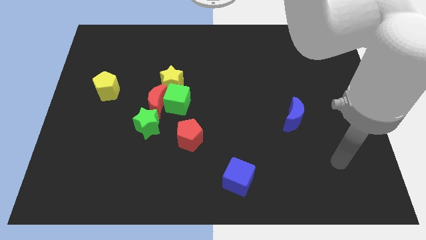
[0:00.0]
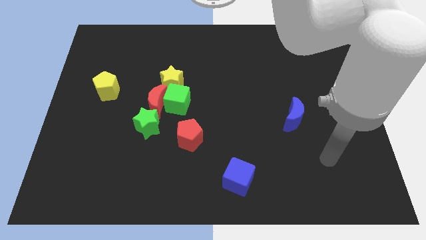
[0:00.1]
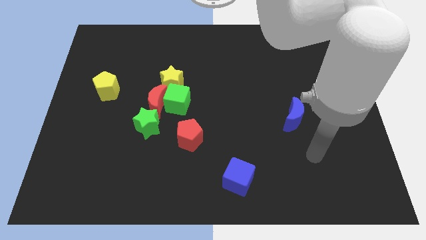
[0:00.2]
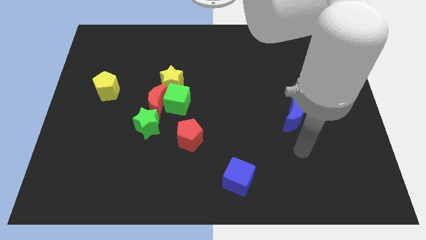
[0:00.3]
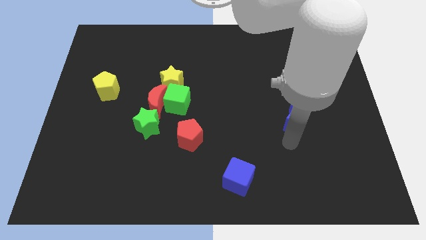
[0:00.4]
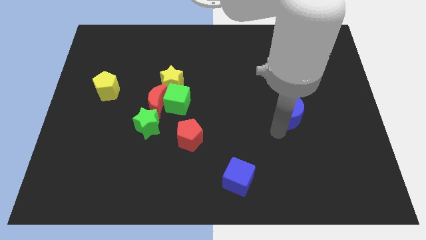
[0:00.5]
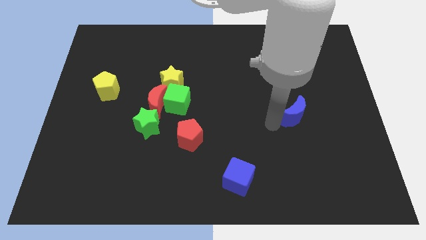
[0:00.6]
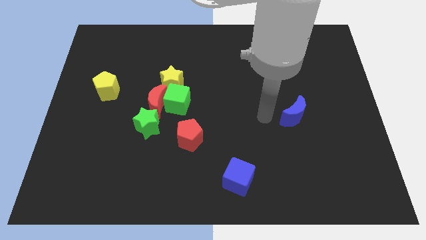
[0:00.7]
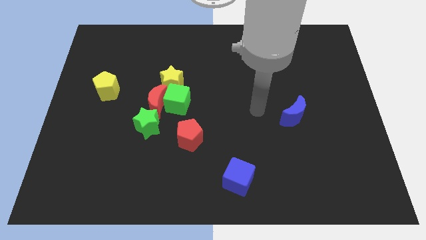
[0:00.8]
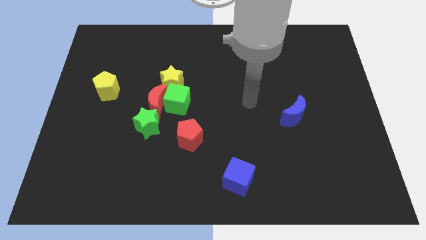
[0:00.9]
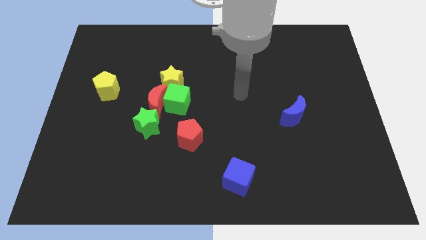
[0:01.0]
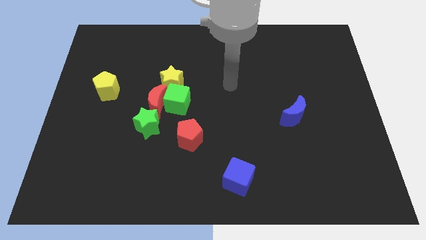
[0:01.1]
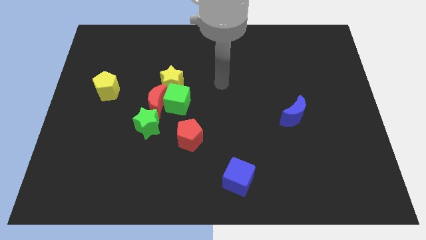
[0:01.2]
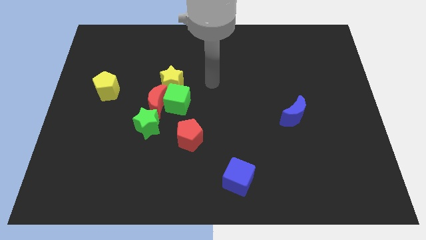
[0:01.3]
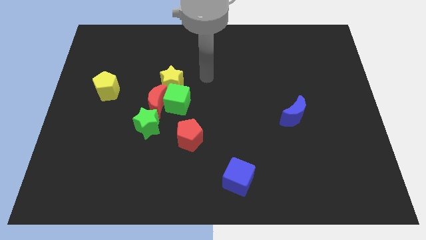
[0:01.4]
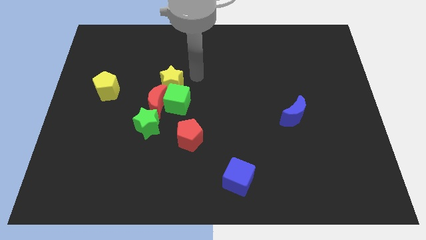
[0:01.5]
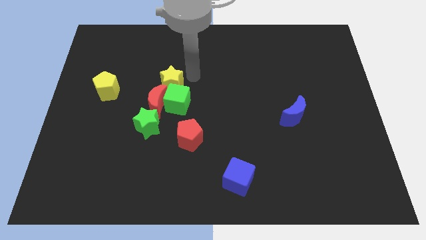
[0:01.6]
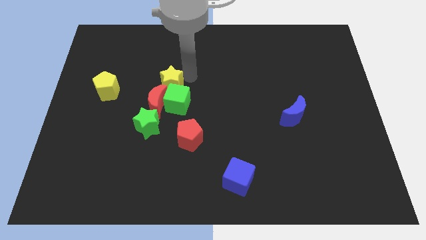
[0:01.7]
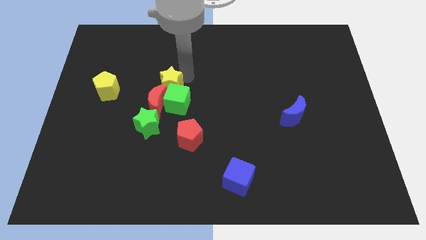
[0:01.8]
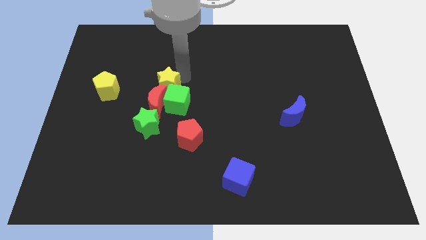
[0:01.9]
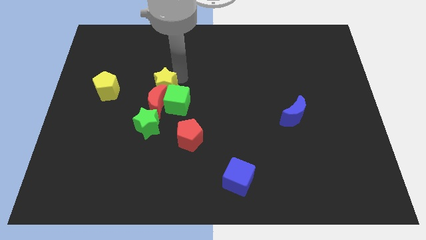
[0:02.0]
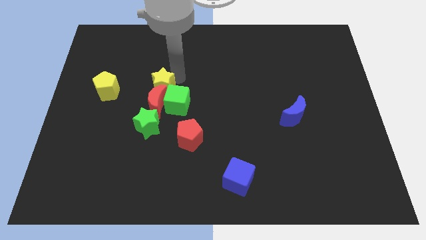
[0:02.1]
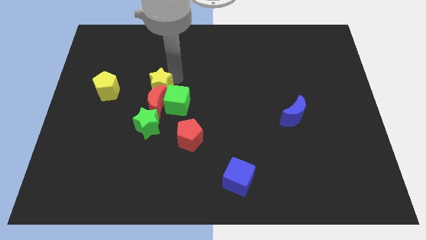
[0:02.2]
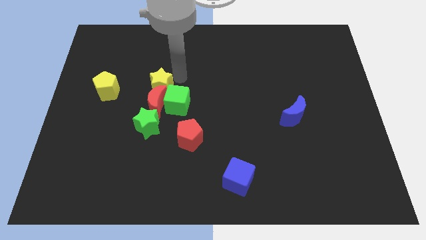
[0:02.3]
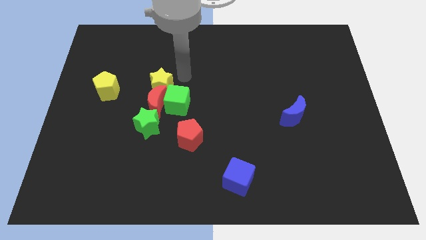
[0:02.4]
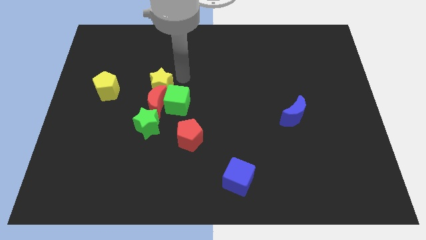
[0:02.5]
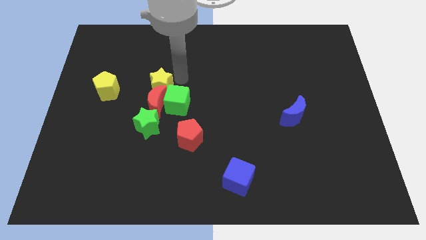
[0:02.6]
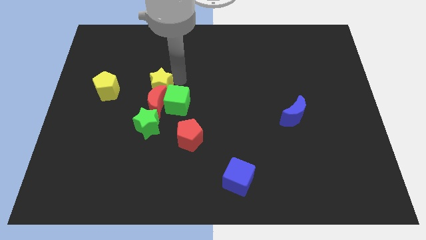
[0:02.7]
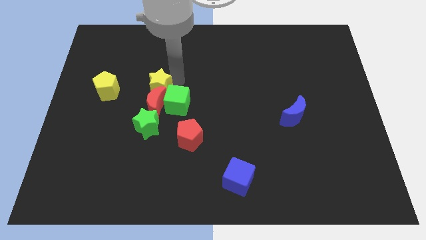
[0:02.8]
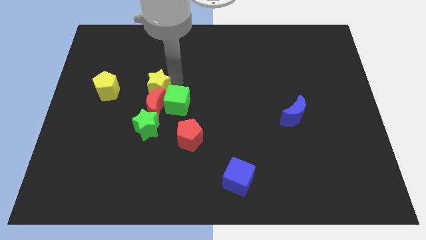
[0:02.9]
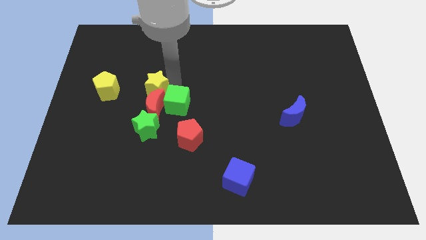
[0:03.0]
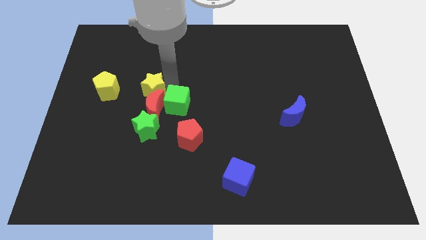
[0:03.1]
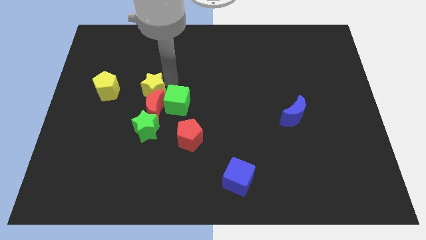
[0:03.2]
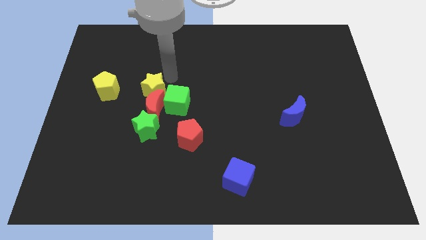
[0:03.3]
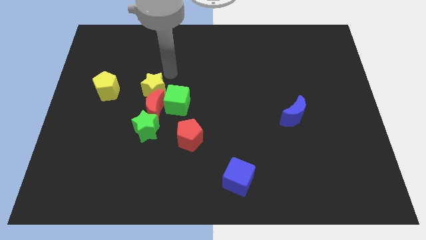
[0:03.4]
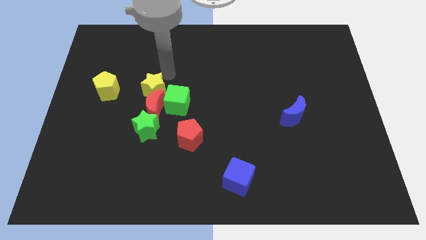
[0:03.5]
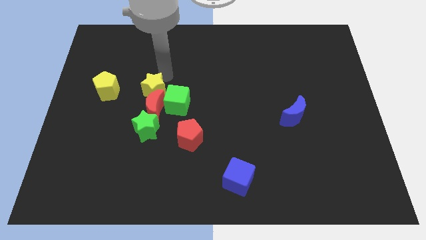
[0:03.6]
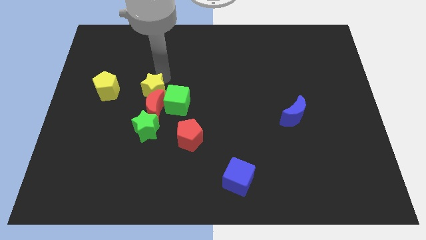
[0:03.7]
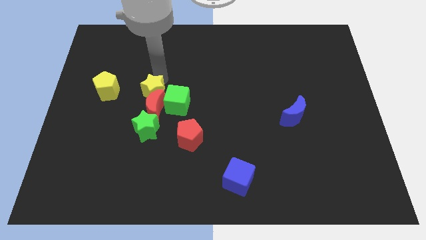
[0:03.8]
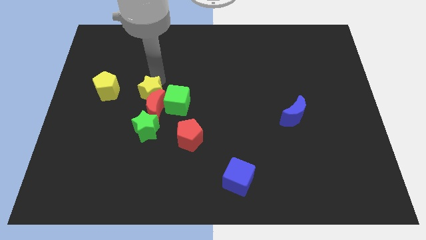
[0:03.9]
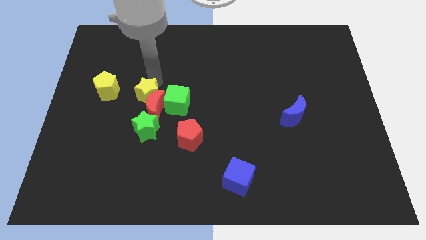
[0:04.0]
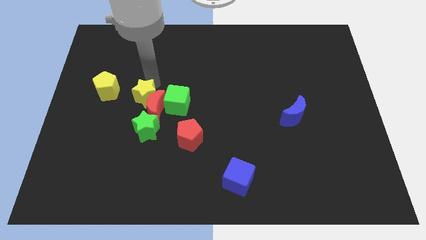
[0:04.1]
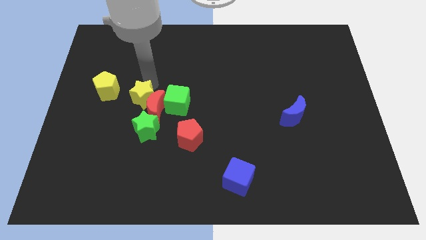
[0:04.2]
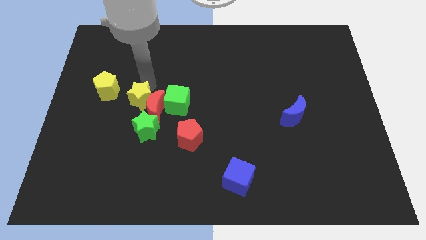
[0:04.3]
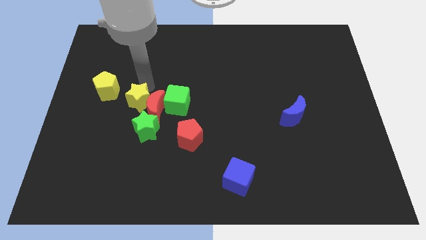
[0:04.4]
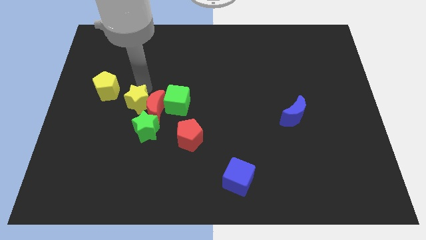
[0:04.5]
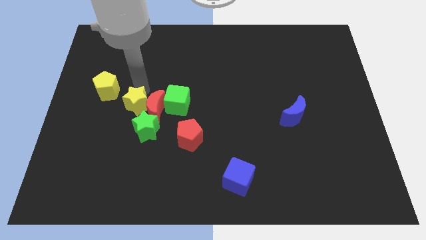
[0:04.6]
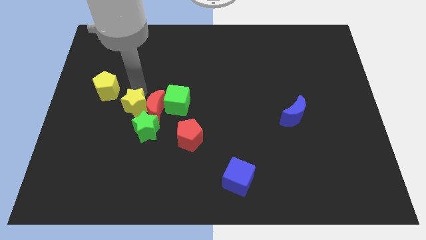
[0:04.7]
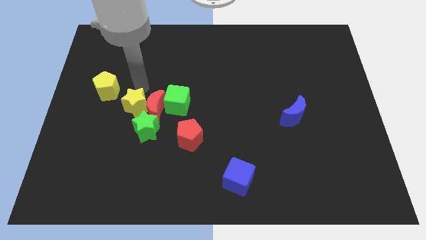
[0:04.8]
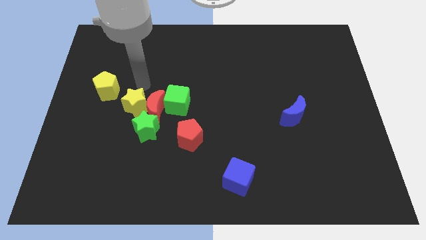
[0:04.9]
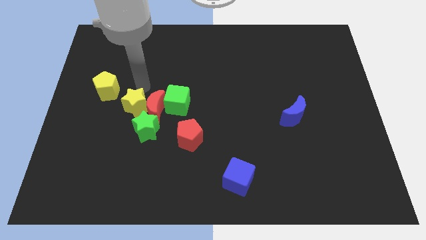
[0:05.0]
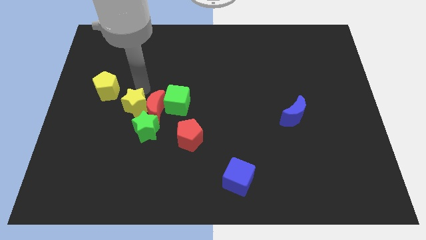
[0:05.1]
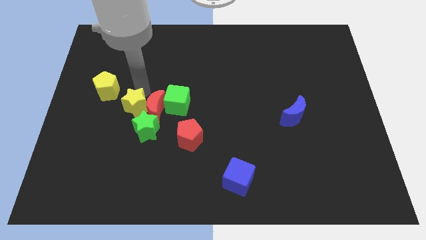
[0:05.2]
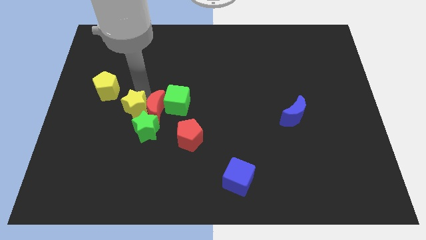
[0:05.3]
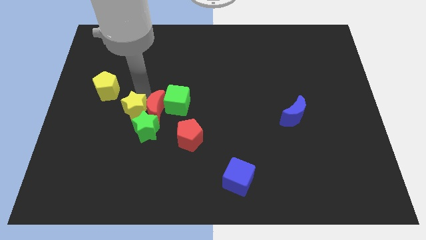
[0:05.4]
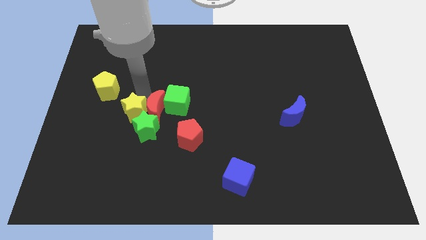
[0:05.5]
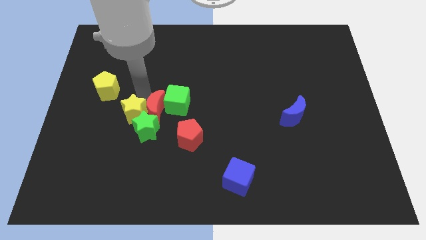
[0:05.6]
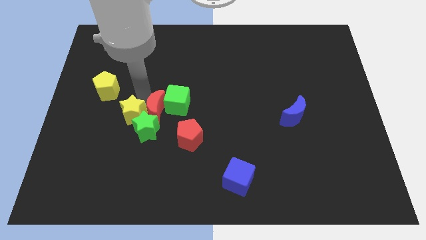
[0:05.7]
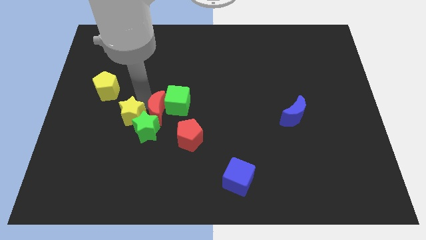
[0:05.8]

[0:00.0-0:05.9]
slightly push the yellow star downwards

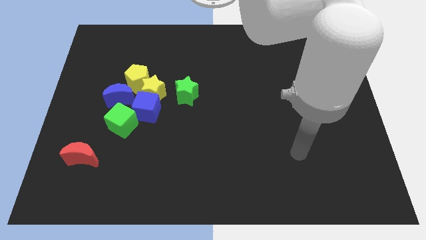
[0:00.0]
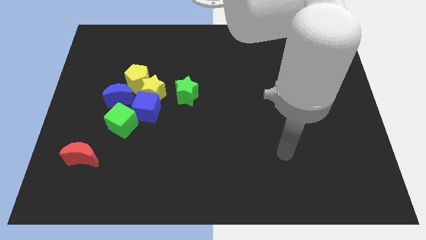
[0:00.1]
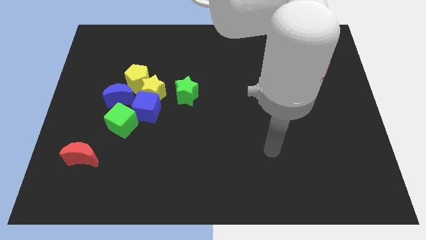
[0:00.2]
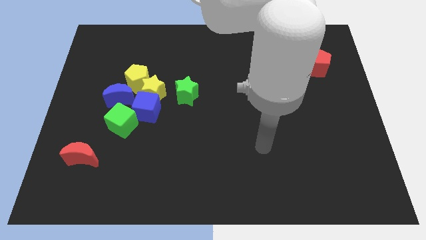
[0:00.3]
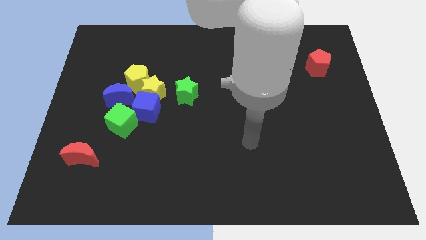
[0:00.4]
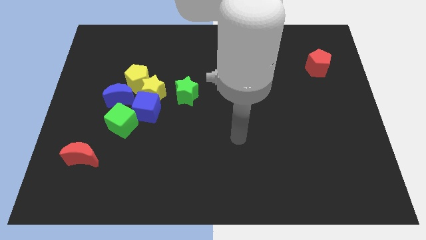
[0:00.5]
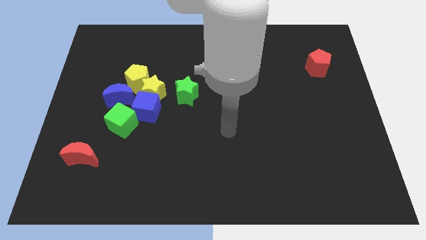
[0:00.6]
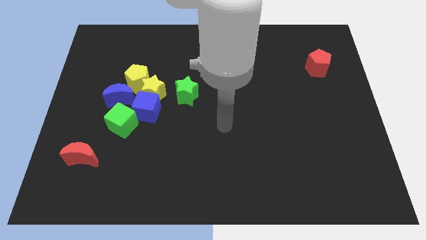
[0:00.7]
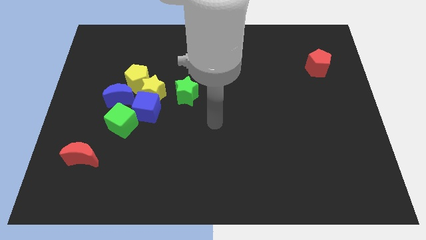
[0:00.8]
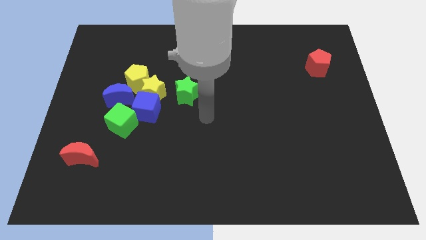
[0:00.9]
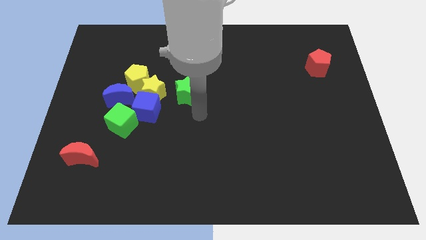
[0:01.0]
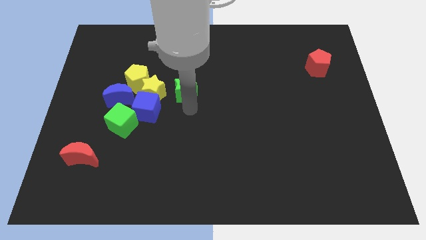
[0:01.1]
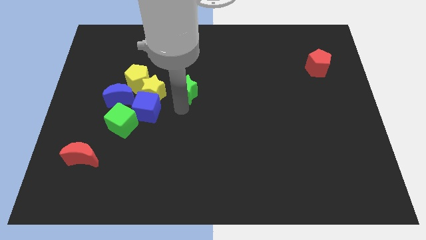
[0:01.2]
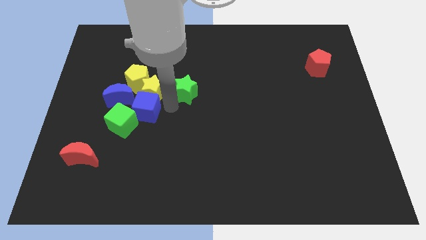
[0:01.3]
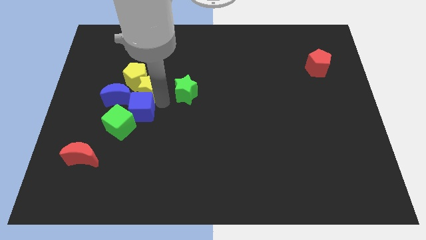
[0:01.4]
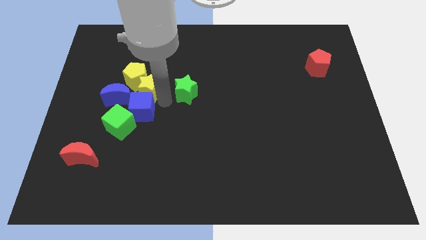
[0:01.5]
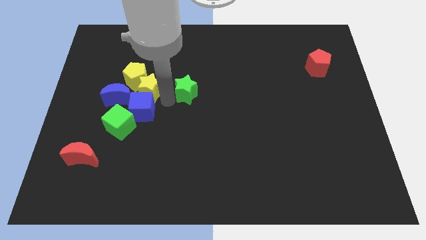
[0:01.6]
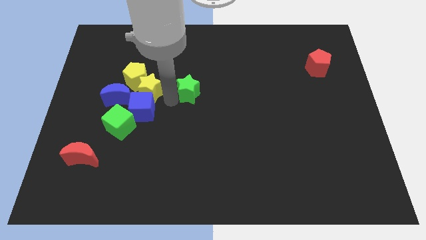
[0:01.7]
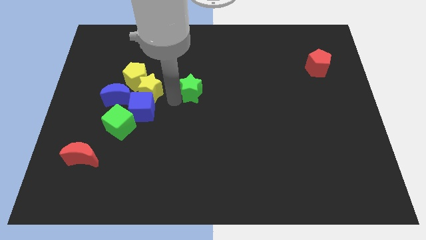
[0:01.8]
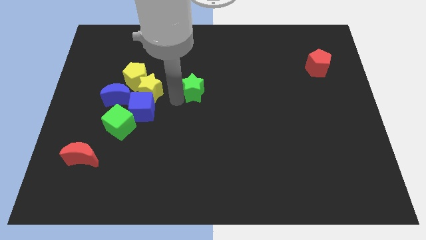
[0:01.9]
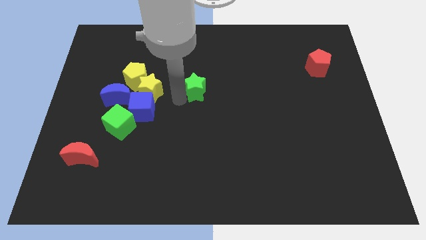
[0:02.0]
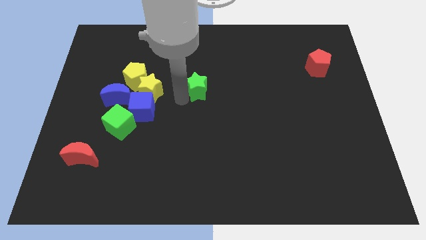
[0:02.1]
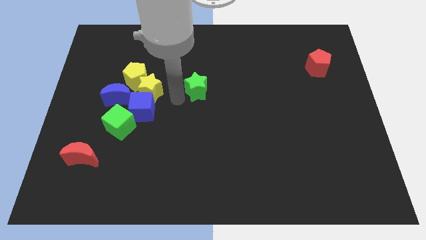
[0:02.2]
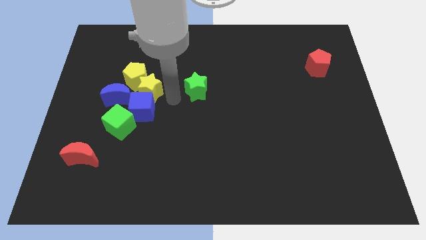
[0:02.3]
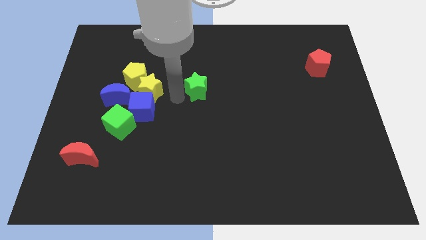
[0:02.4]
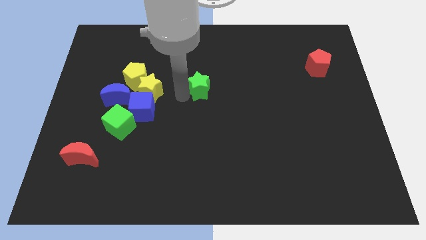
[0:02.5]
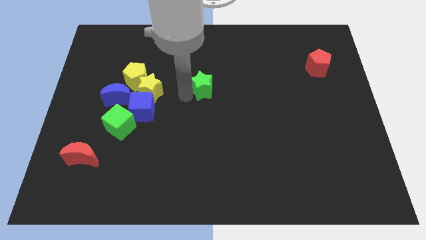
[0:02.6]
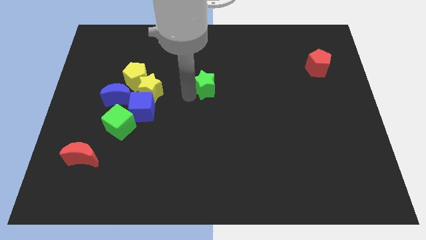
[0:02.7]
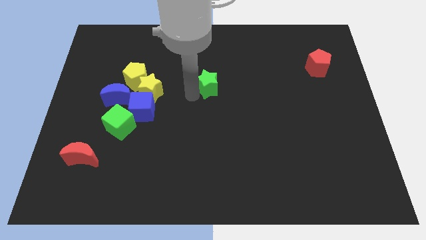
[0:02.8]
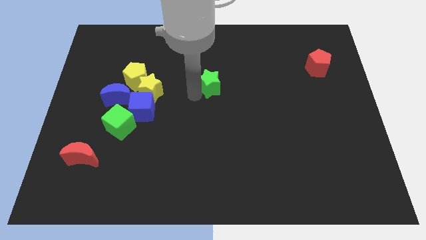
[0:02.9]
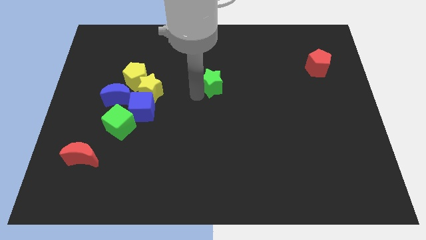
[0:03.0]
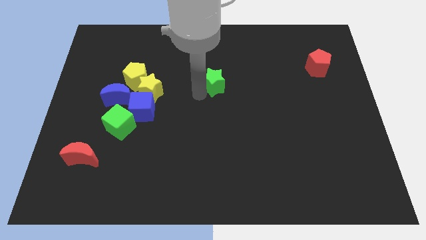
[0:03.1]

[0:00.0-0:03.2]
slightly slide the green star up and right
